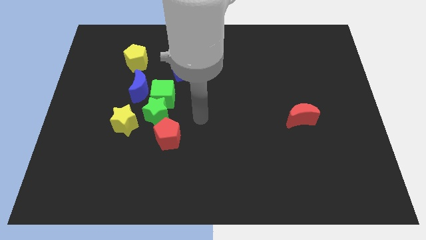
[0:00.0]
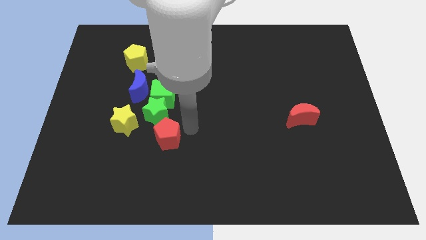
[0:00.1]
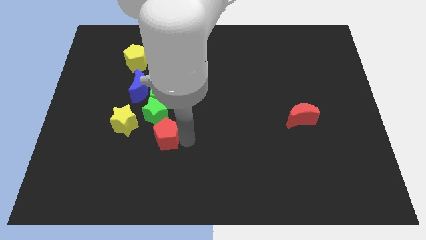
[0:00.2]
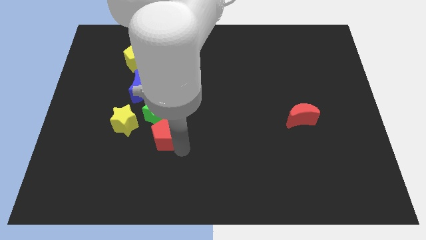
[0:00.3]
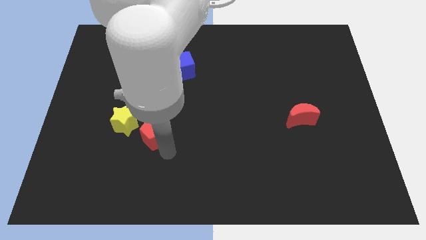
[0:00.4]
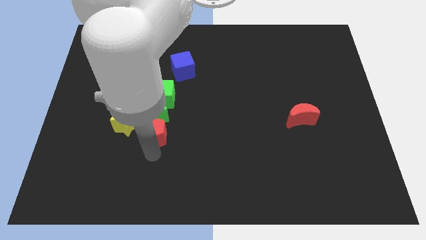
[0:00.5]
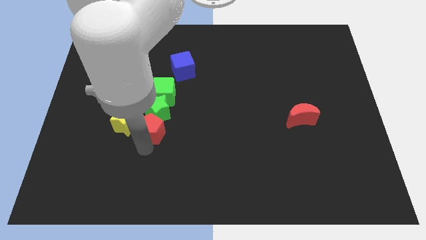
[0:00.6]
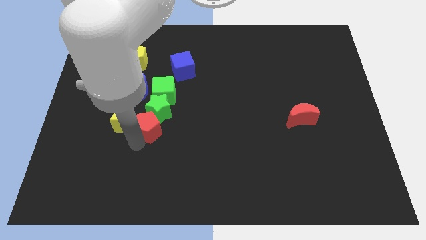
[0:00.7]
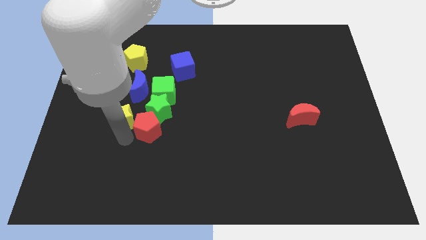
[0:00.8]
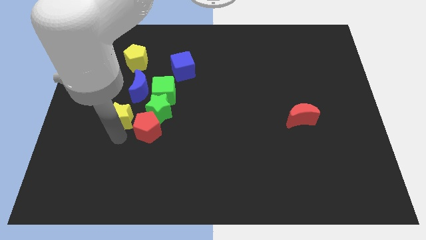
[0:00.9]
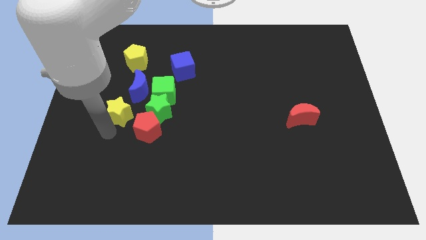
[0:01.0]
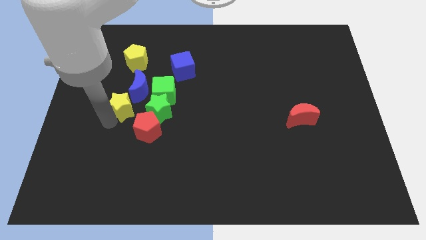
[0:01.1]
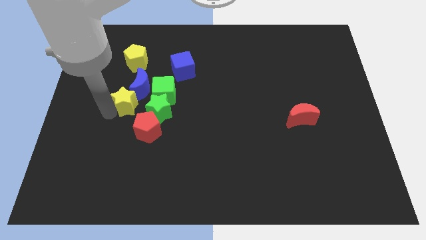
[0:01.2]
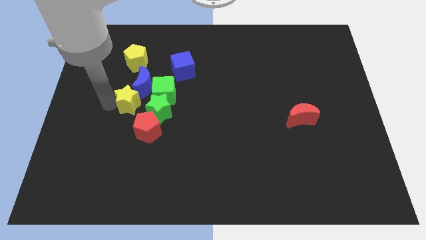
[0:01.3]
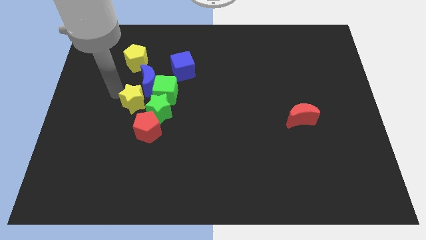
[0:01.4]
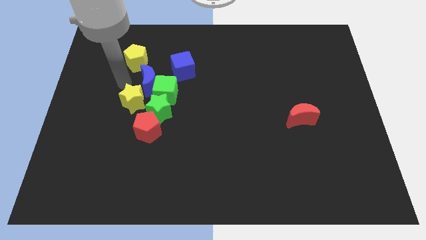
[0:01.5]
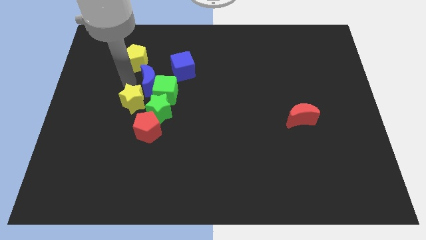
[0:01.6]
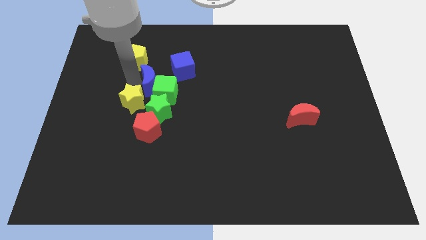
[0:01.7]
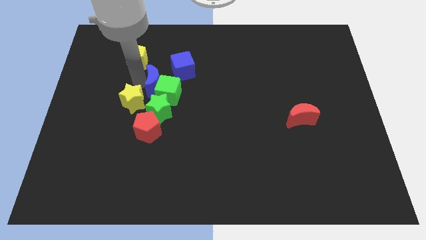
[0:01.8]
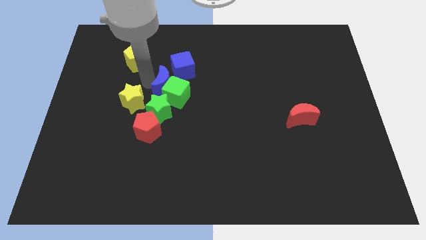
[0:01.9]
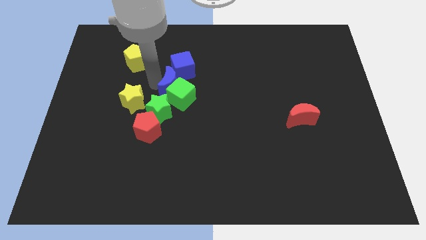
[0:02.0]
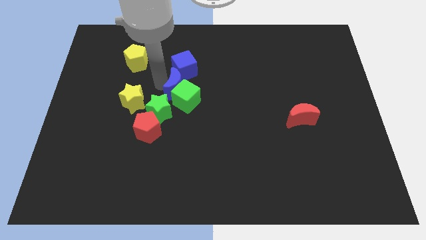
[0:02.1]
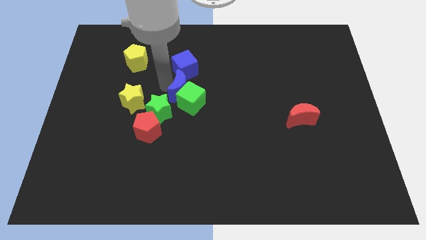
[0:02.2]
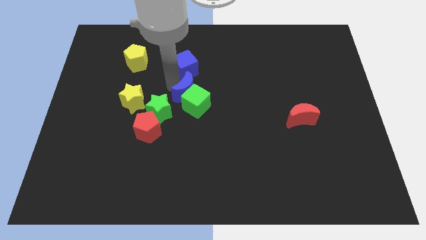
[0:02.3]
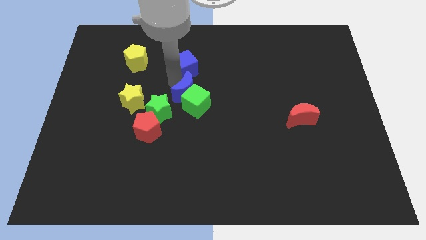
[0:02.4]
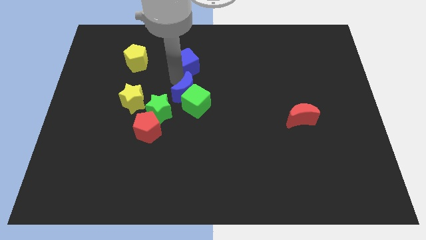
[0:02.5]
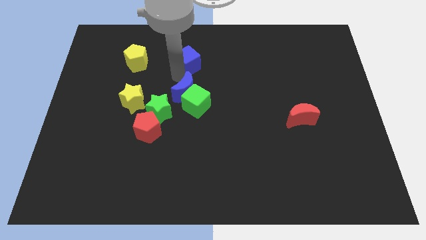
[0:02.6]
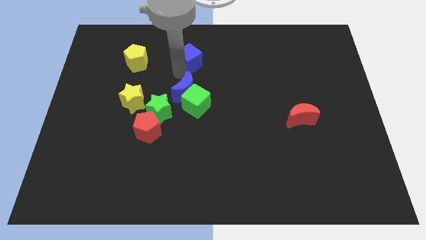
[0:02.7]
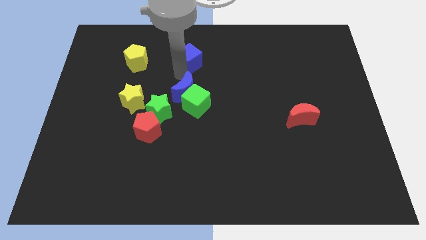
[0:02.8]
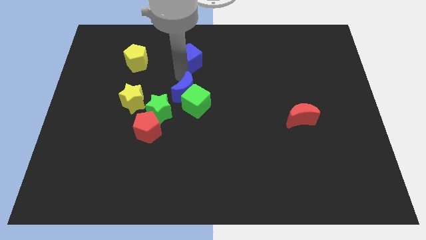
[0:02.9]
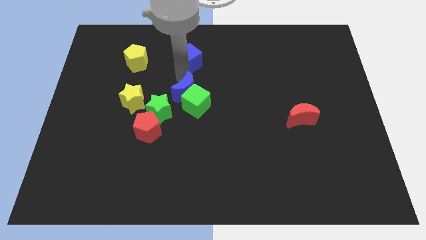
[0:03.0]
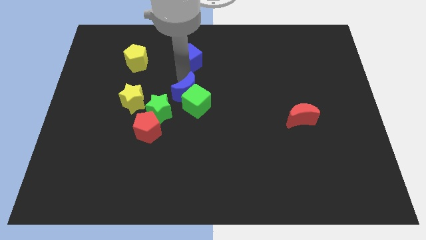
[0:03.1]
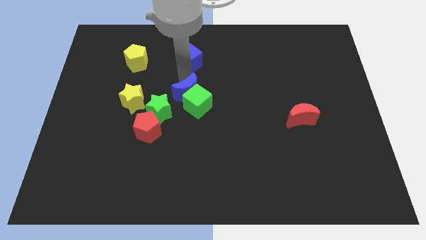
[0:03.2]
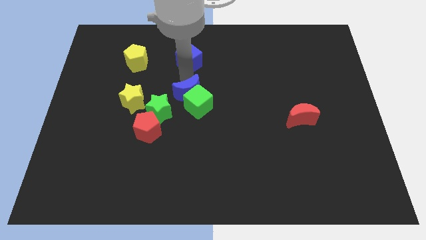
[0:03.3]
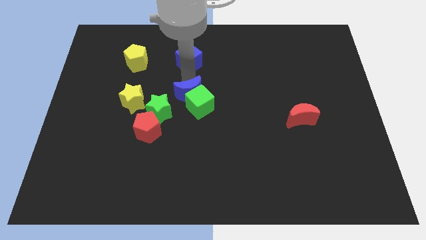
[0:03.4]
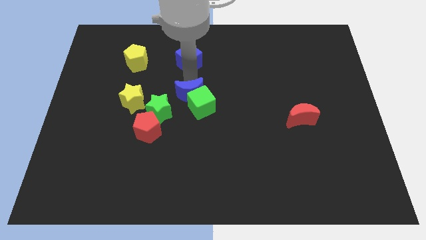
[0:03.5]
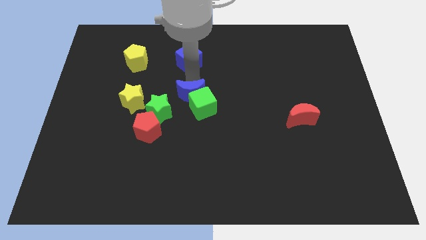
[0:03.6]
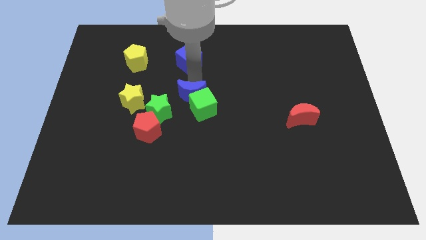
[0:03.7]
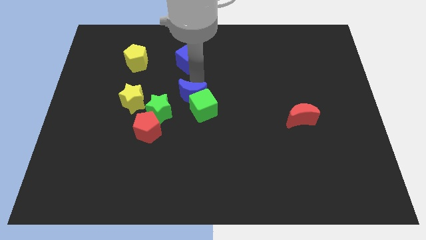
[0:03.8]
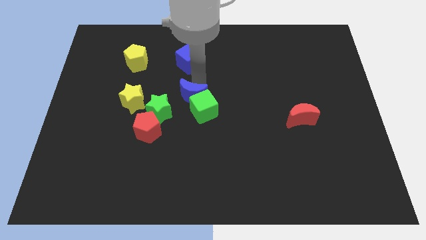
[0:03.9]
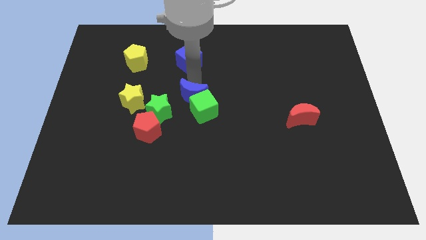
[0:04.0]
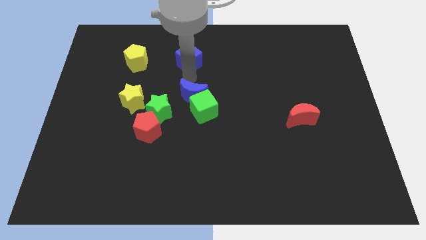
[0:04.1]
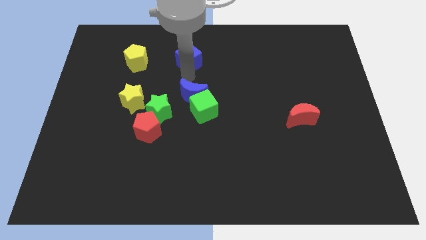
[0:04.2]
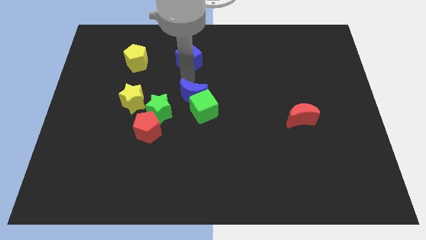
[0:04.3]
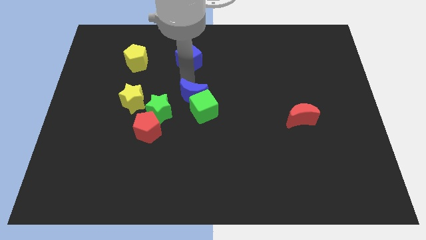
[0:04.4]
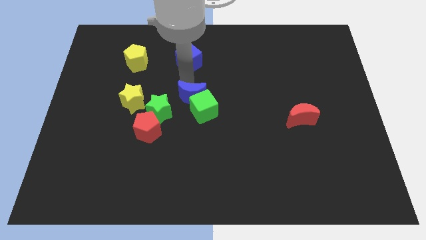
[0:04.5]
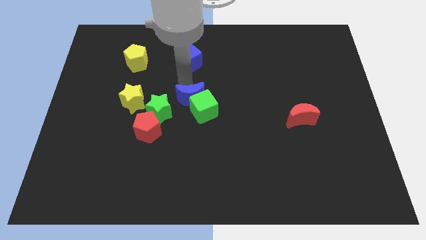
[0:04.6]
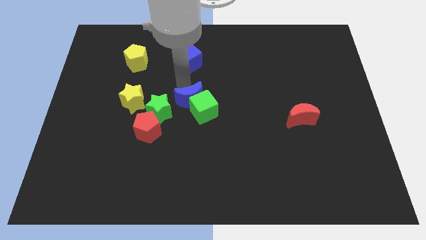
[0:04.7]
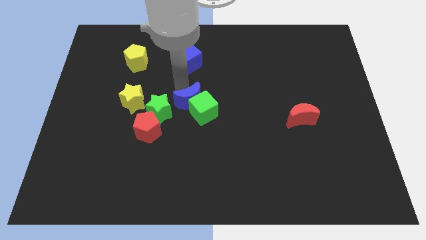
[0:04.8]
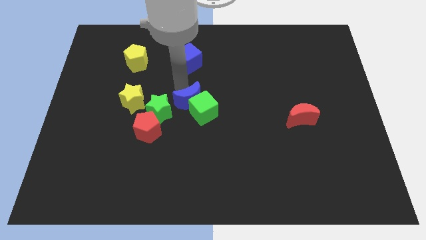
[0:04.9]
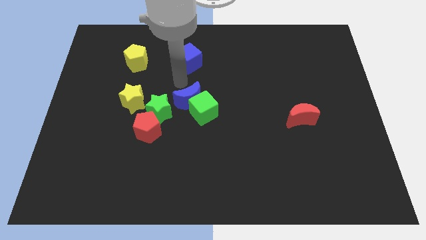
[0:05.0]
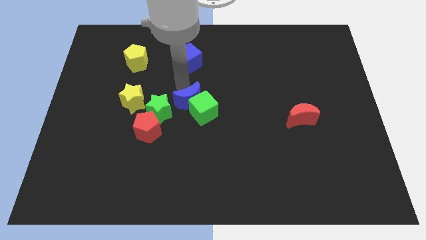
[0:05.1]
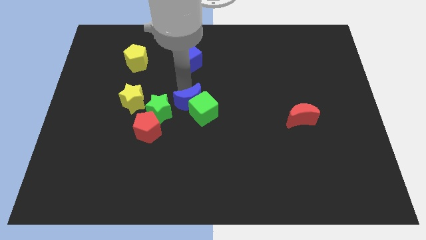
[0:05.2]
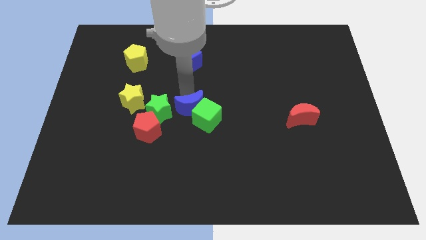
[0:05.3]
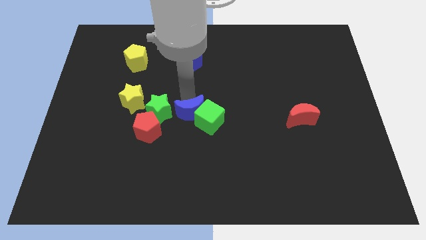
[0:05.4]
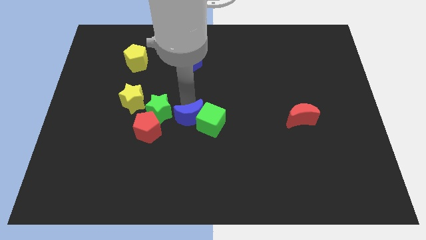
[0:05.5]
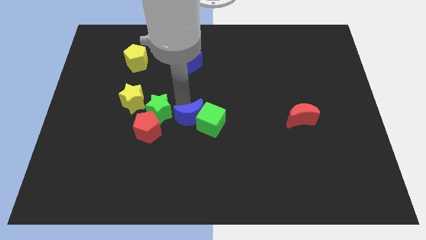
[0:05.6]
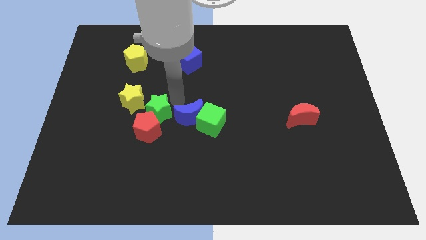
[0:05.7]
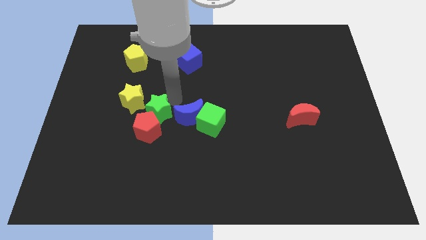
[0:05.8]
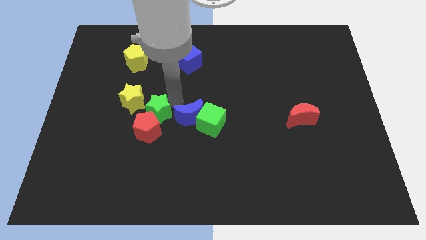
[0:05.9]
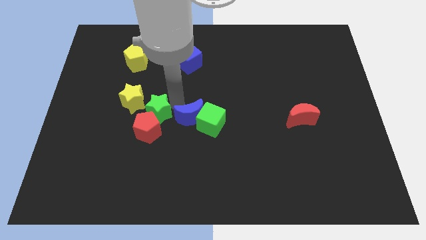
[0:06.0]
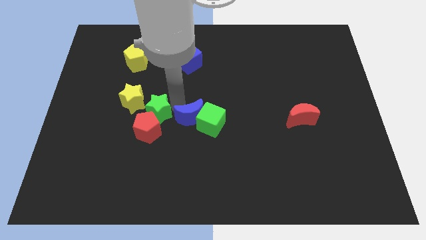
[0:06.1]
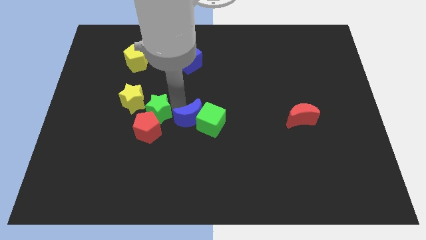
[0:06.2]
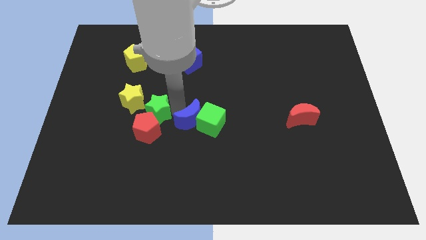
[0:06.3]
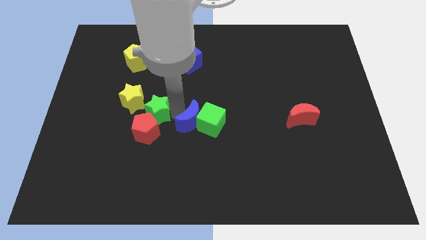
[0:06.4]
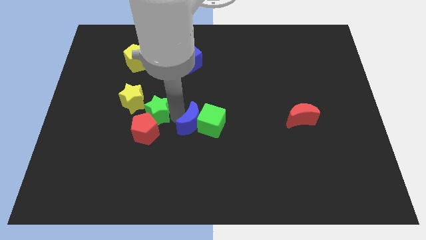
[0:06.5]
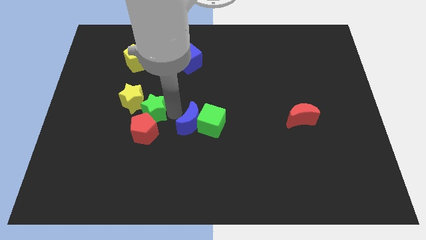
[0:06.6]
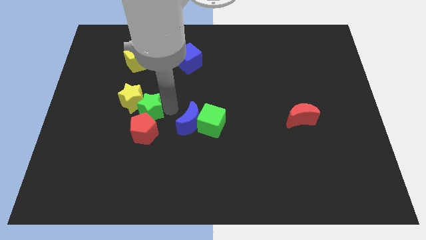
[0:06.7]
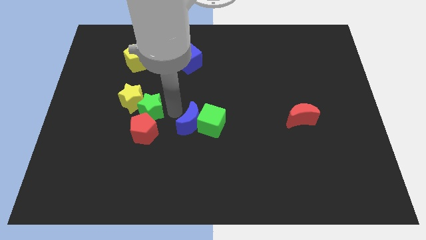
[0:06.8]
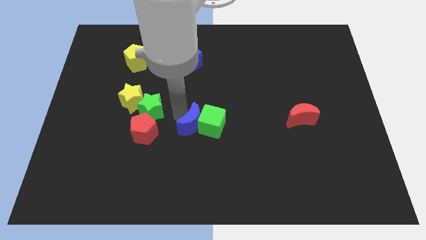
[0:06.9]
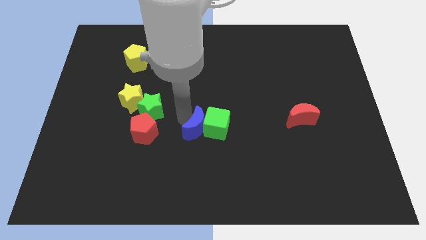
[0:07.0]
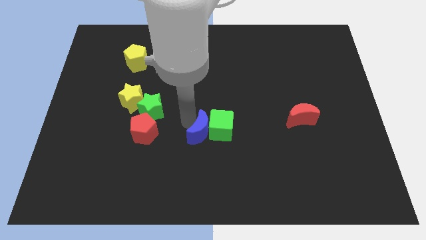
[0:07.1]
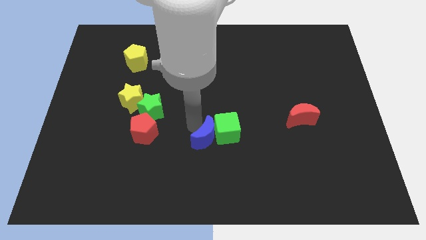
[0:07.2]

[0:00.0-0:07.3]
move the blue moon downwards and then to the right

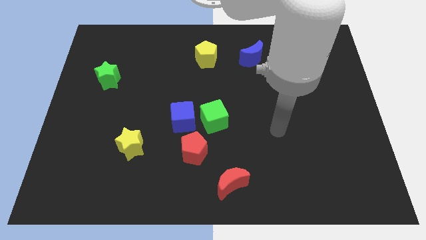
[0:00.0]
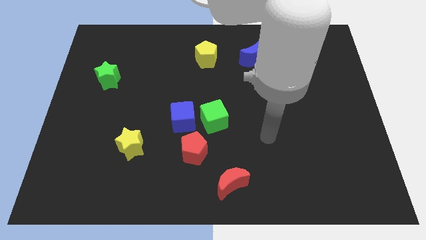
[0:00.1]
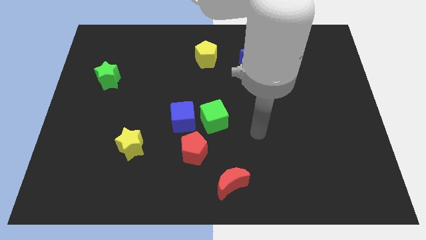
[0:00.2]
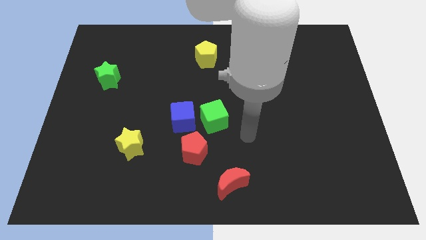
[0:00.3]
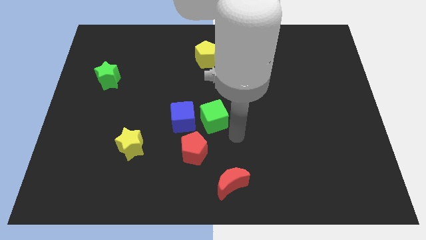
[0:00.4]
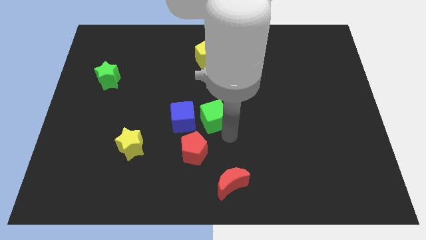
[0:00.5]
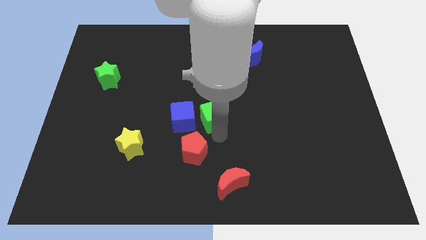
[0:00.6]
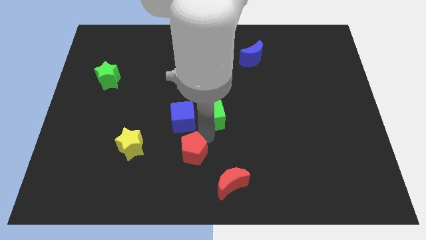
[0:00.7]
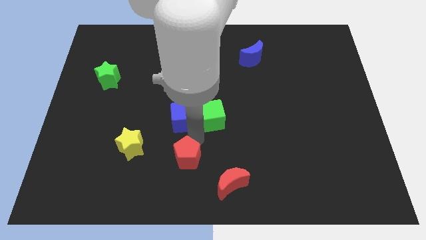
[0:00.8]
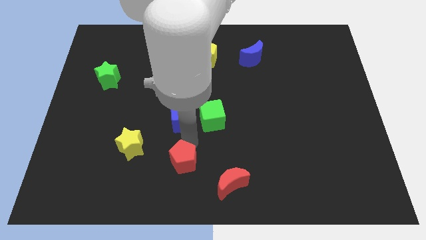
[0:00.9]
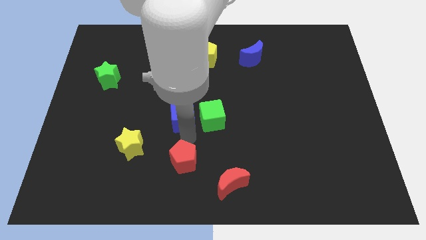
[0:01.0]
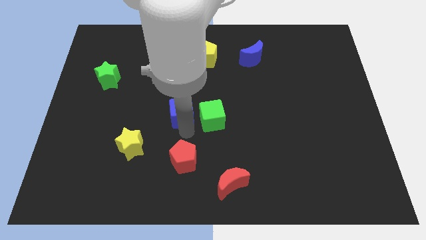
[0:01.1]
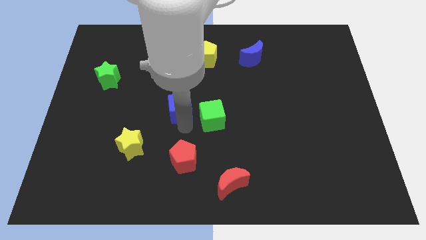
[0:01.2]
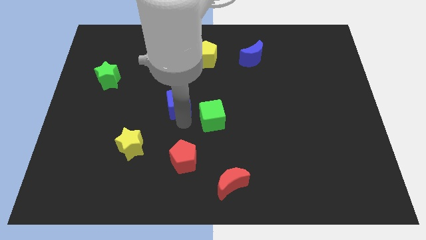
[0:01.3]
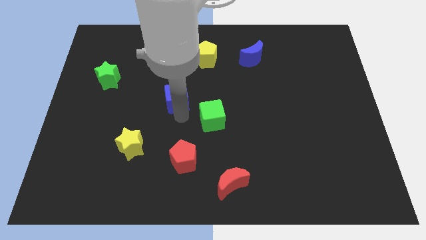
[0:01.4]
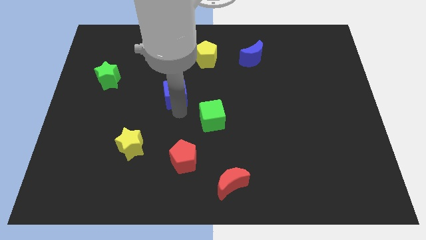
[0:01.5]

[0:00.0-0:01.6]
push the blue cube a bit up
